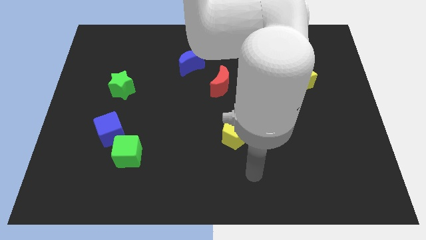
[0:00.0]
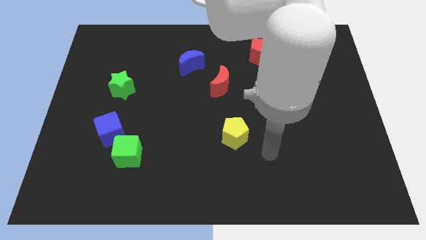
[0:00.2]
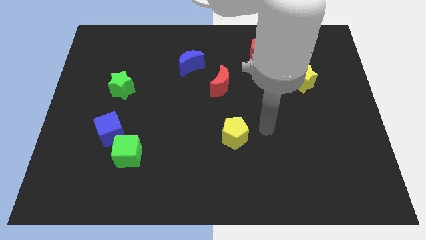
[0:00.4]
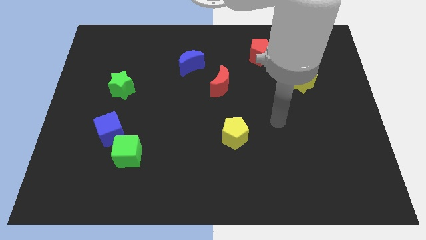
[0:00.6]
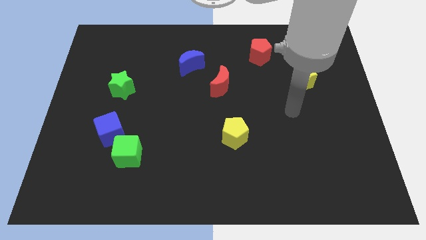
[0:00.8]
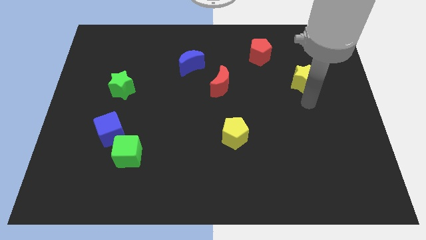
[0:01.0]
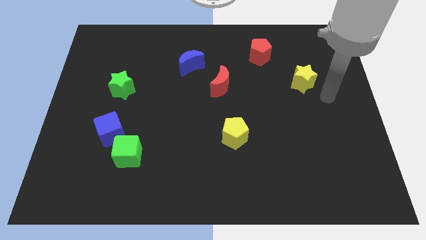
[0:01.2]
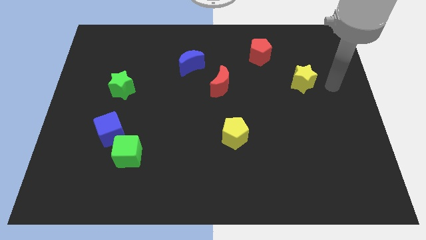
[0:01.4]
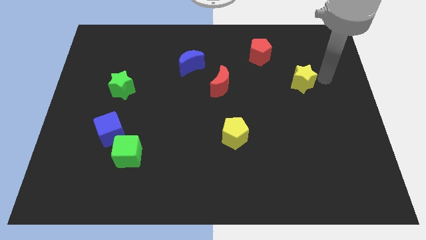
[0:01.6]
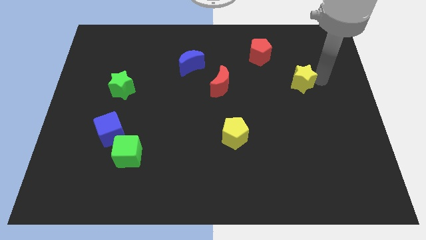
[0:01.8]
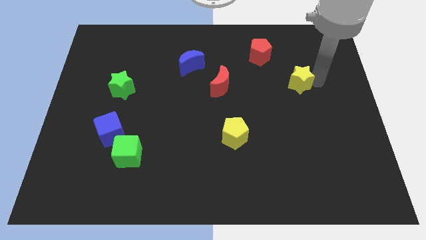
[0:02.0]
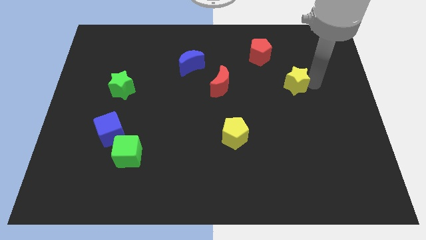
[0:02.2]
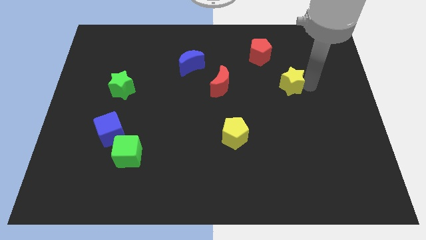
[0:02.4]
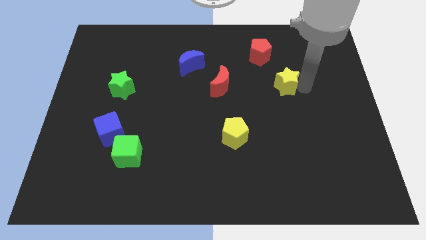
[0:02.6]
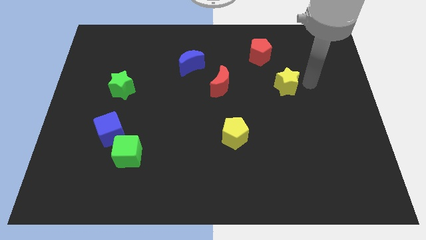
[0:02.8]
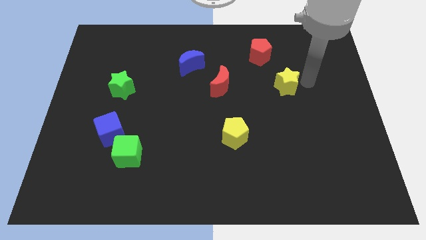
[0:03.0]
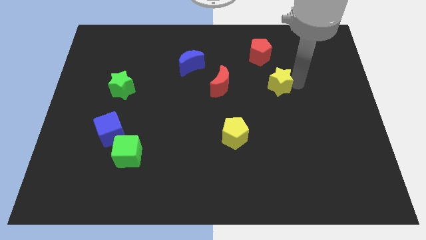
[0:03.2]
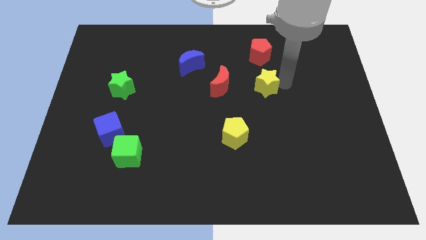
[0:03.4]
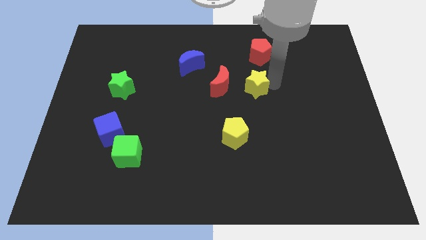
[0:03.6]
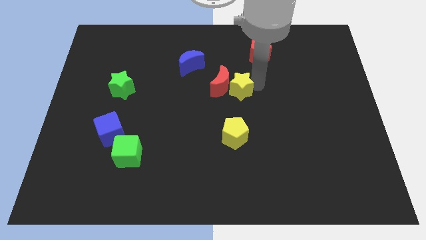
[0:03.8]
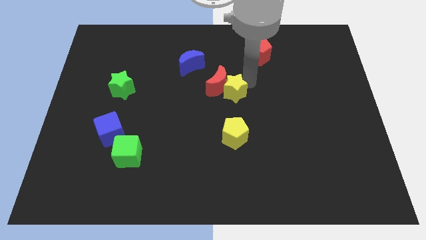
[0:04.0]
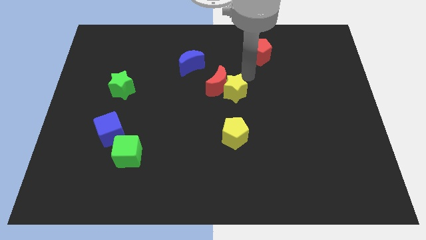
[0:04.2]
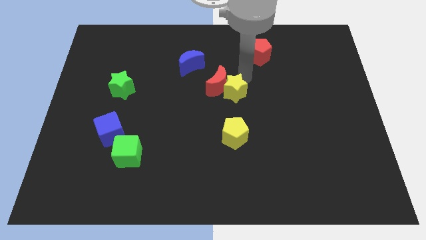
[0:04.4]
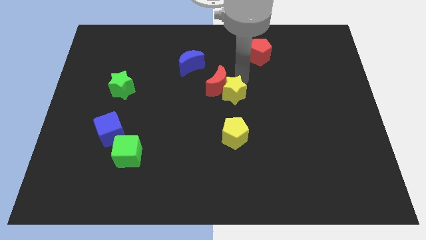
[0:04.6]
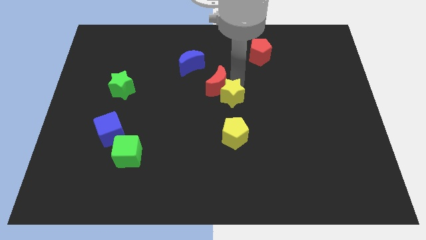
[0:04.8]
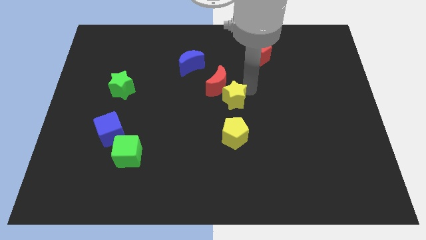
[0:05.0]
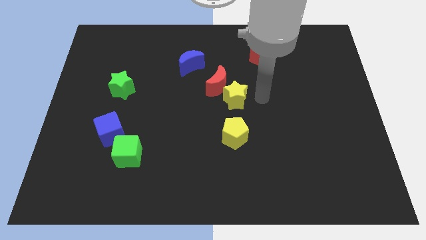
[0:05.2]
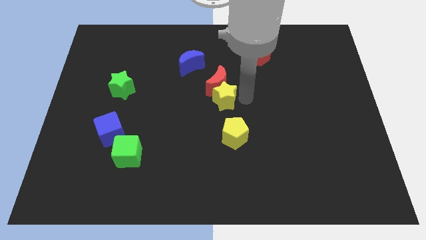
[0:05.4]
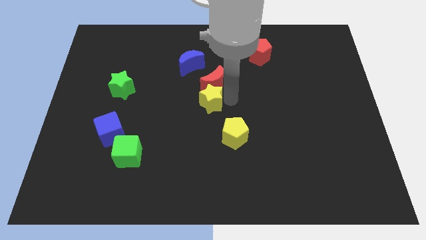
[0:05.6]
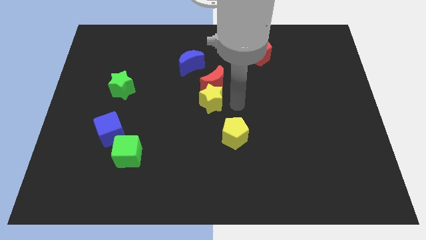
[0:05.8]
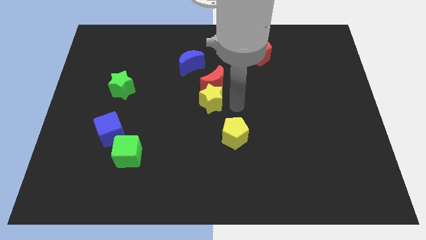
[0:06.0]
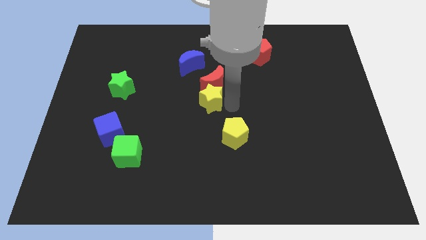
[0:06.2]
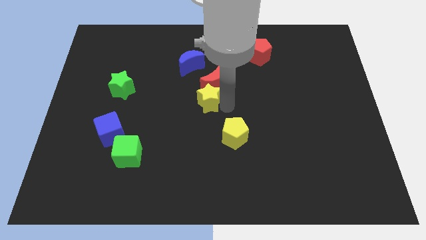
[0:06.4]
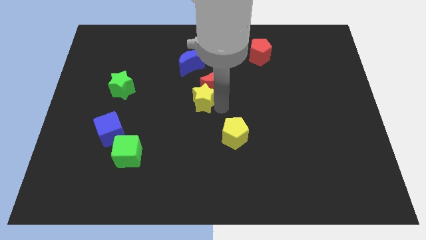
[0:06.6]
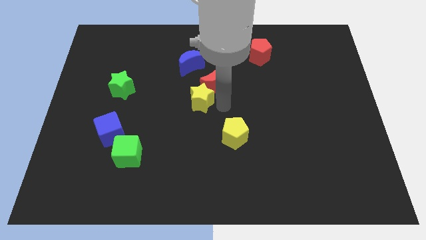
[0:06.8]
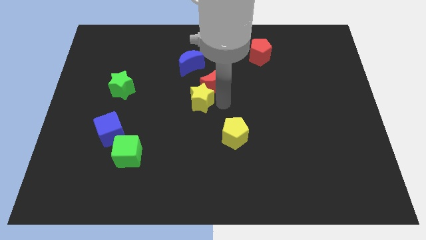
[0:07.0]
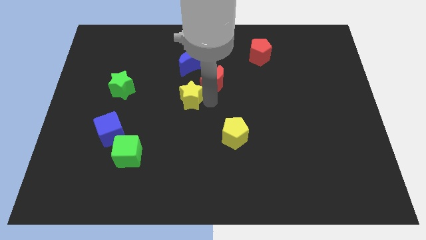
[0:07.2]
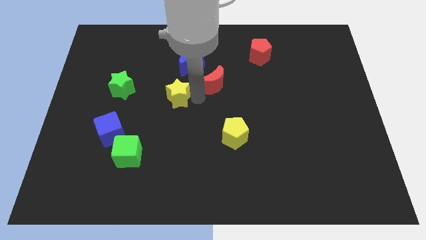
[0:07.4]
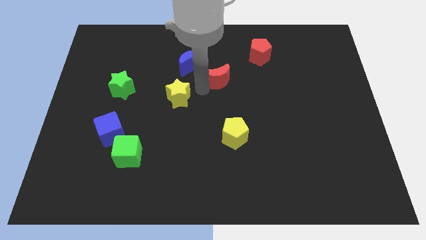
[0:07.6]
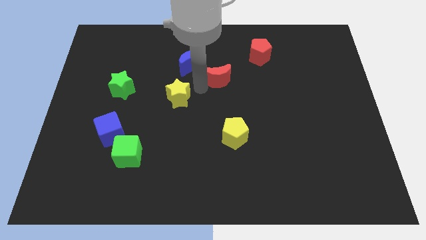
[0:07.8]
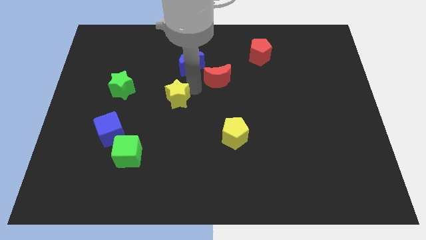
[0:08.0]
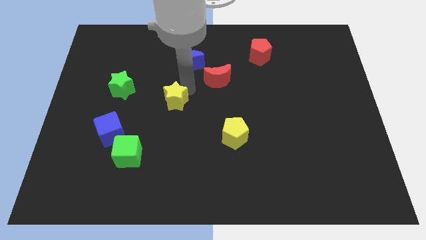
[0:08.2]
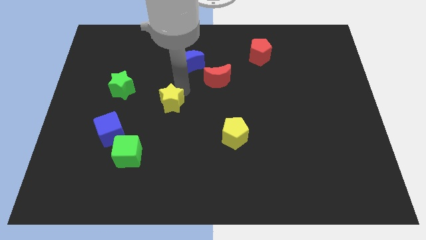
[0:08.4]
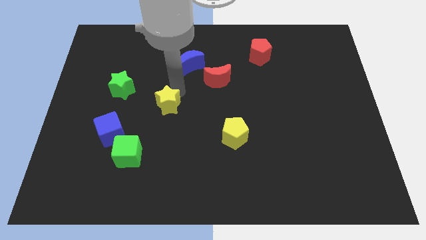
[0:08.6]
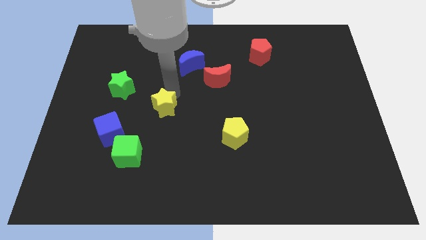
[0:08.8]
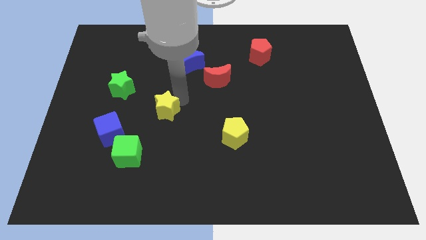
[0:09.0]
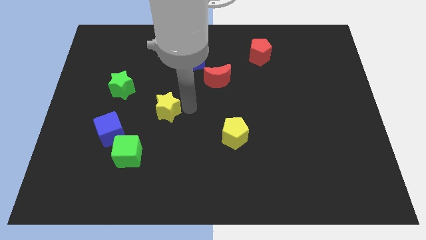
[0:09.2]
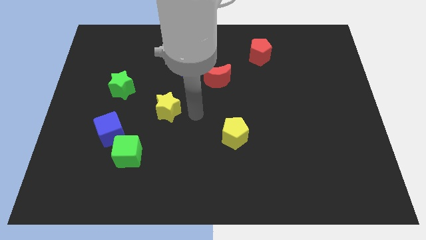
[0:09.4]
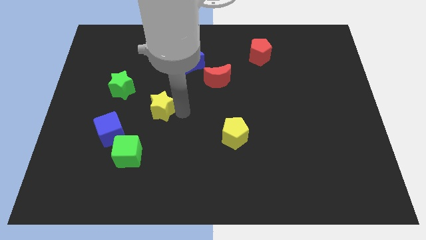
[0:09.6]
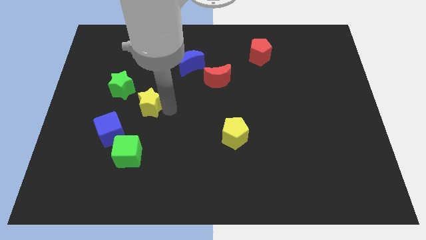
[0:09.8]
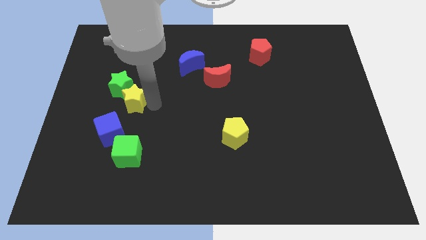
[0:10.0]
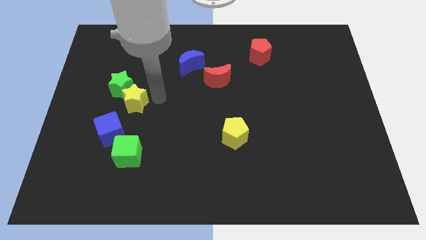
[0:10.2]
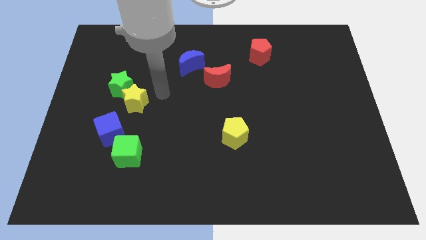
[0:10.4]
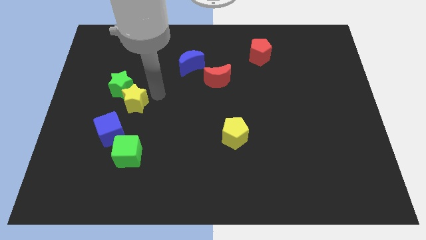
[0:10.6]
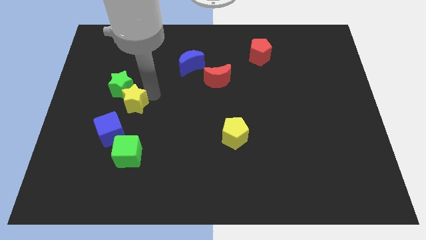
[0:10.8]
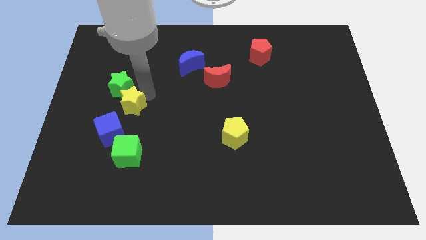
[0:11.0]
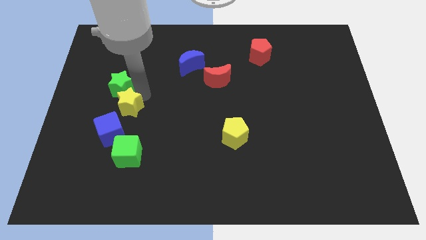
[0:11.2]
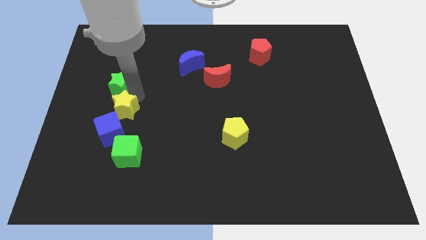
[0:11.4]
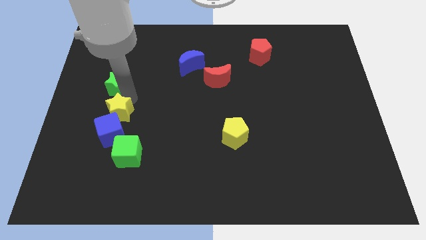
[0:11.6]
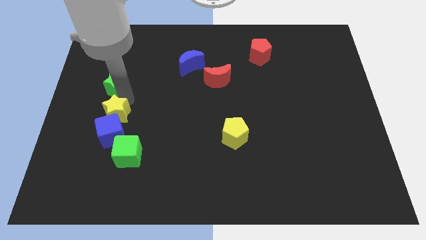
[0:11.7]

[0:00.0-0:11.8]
slide the yellow star to the top left side of the blue cube

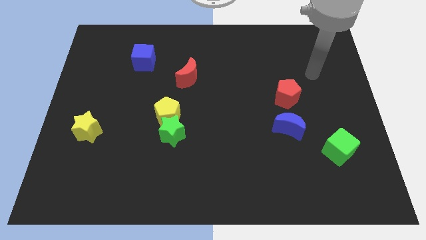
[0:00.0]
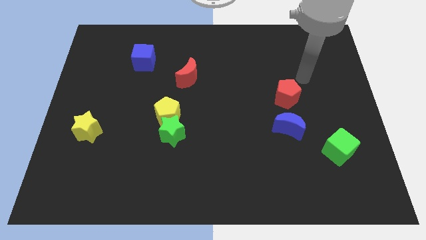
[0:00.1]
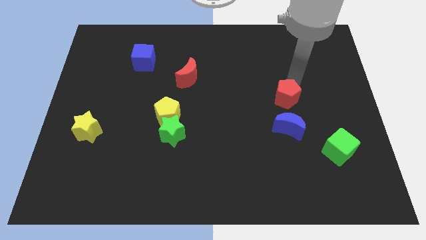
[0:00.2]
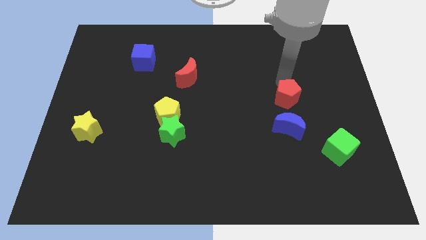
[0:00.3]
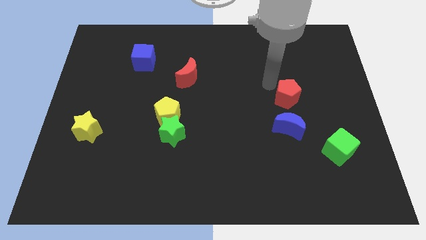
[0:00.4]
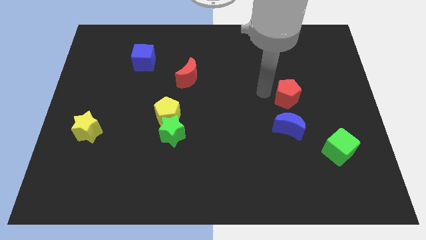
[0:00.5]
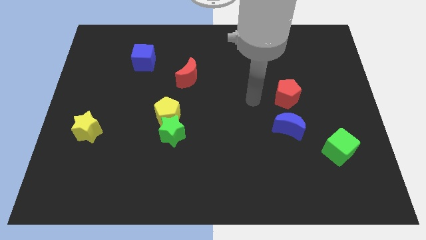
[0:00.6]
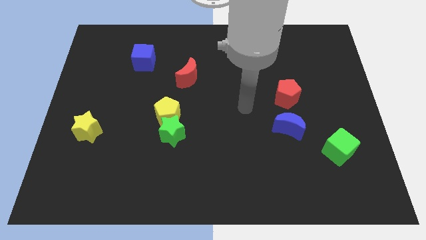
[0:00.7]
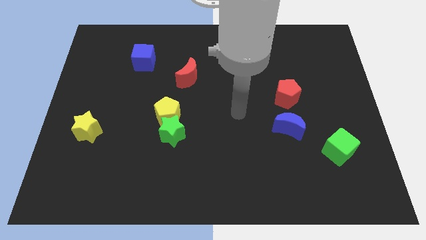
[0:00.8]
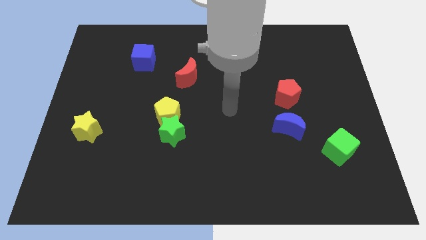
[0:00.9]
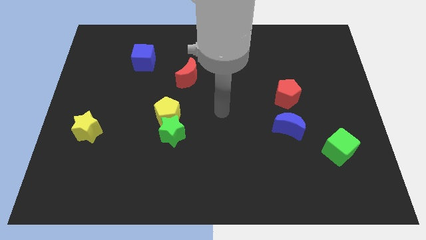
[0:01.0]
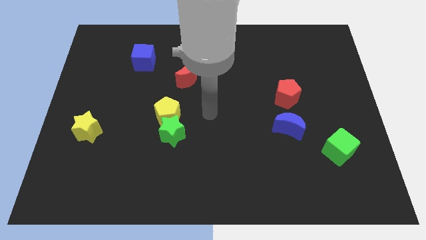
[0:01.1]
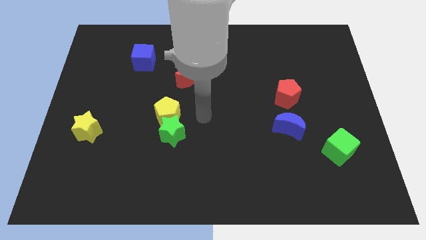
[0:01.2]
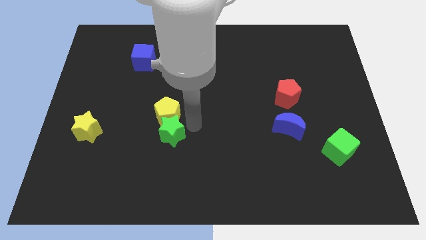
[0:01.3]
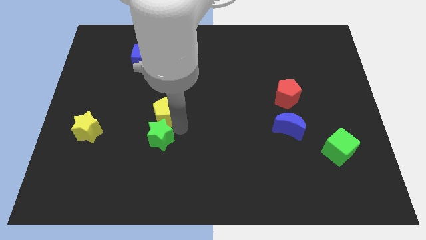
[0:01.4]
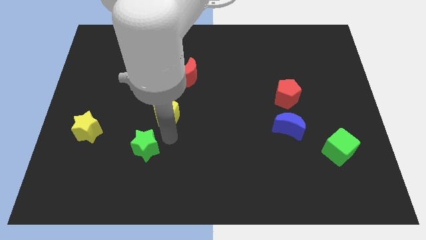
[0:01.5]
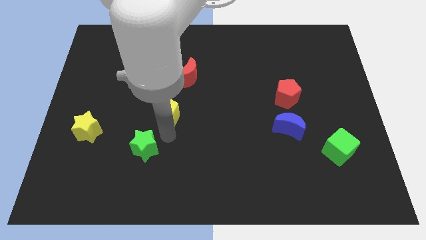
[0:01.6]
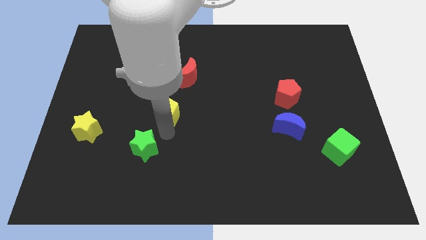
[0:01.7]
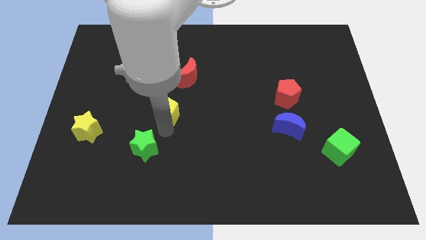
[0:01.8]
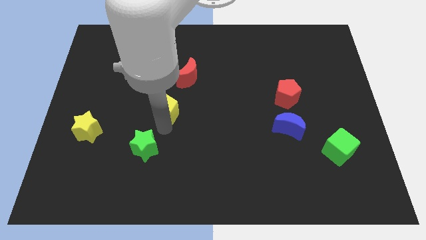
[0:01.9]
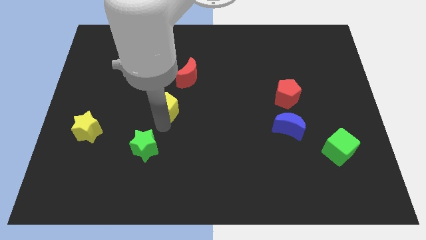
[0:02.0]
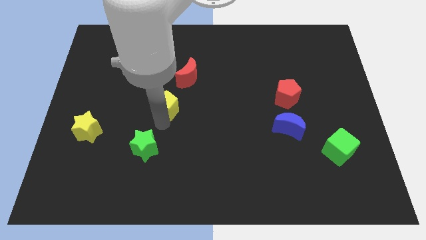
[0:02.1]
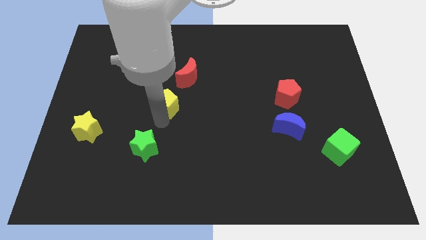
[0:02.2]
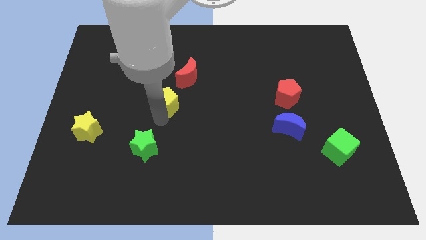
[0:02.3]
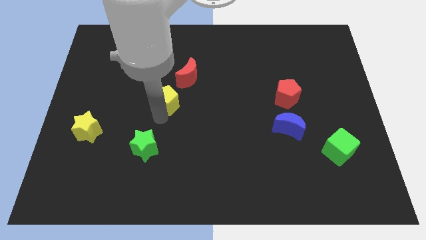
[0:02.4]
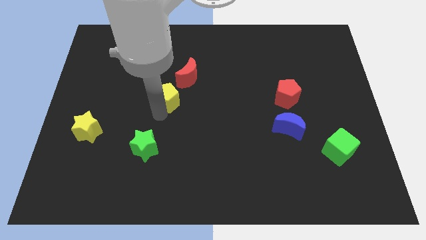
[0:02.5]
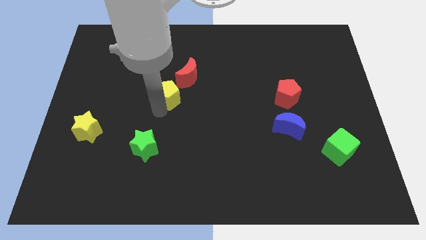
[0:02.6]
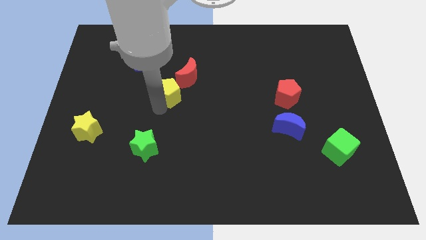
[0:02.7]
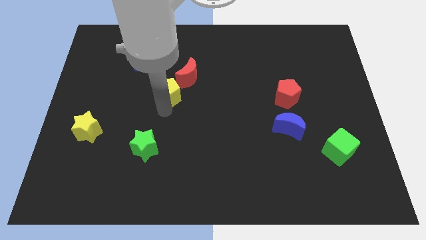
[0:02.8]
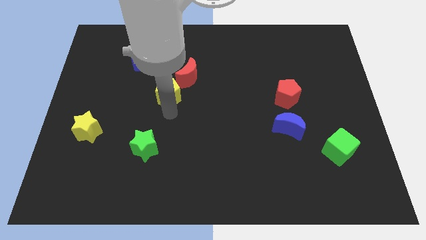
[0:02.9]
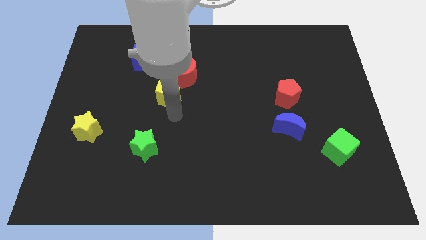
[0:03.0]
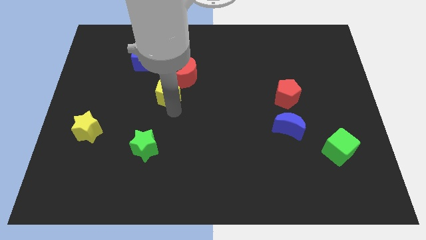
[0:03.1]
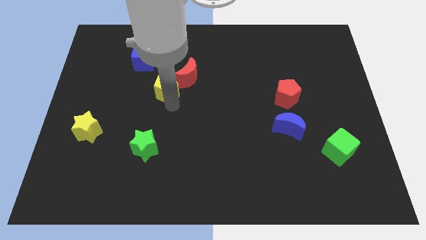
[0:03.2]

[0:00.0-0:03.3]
put the yellow pentagon diagonally down and to the right of the blue cube
